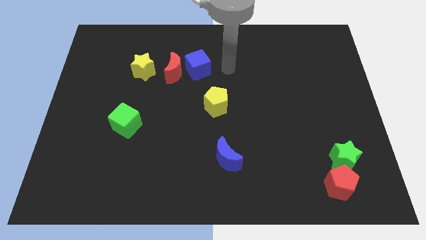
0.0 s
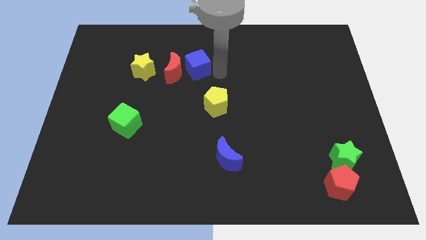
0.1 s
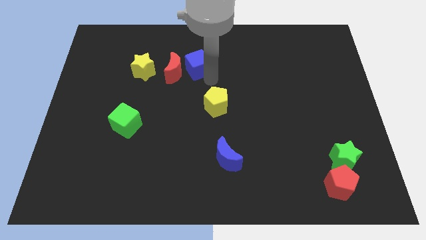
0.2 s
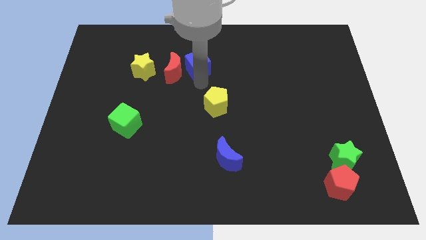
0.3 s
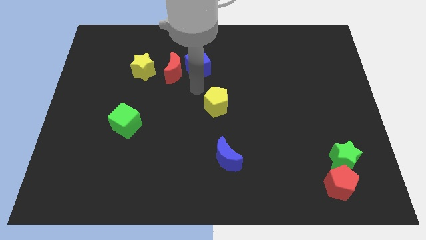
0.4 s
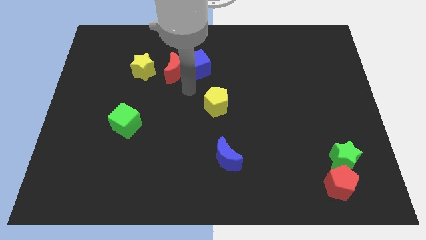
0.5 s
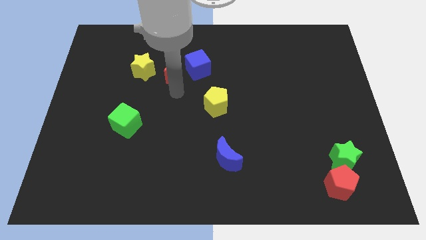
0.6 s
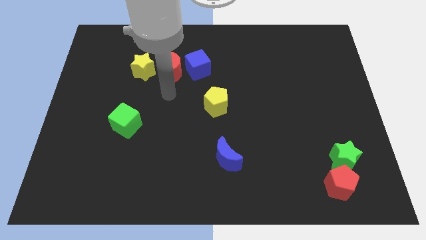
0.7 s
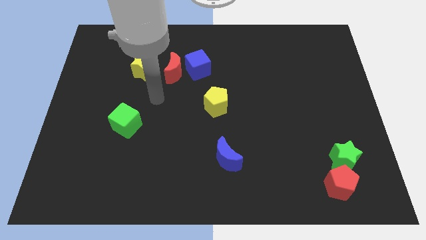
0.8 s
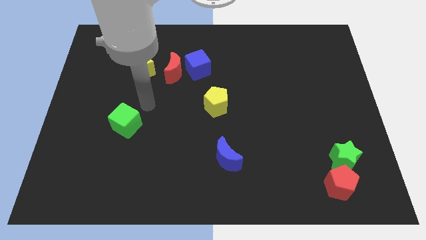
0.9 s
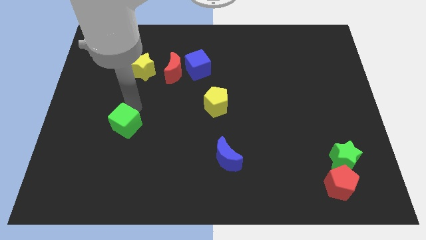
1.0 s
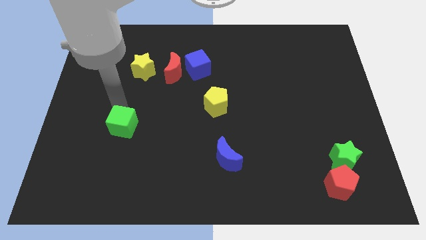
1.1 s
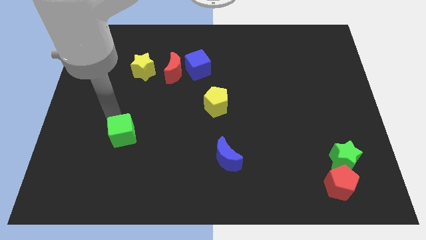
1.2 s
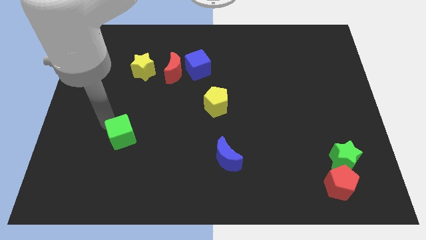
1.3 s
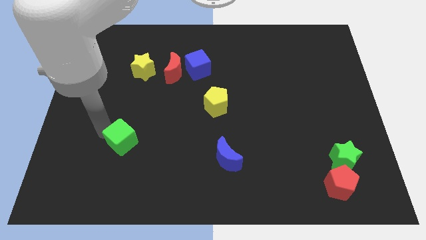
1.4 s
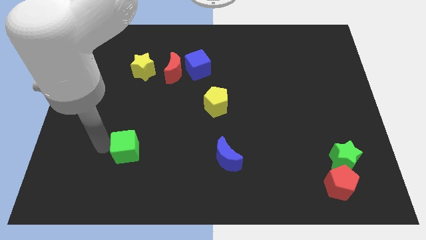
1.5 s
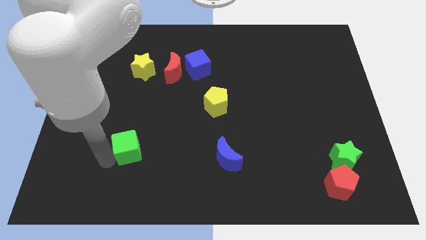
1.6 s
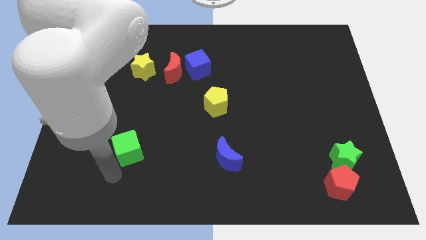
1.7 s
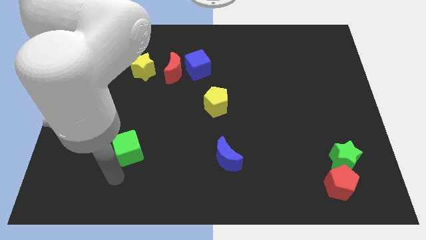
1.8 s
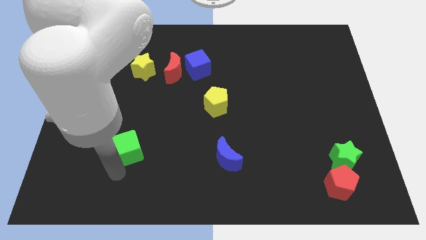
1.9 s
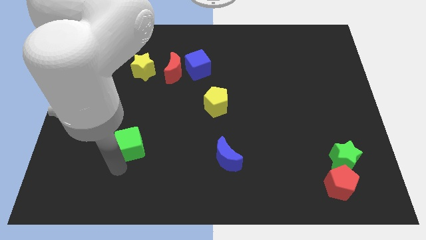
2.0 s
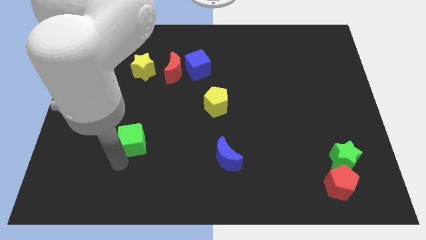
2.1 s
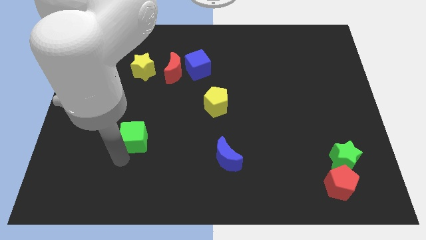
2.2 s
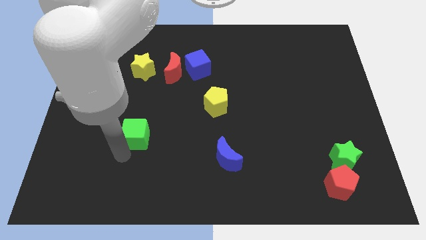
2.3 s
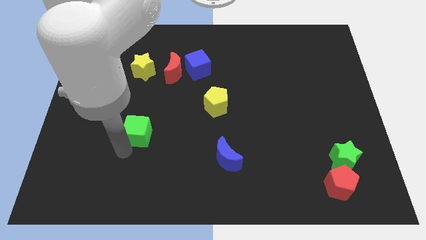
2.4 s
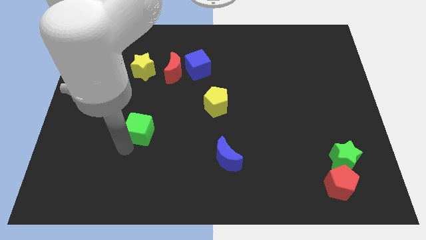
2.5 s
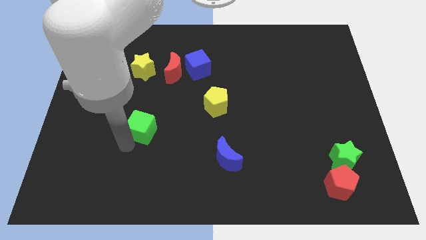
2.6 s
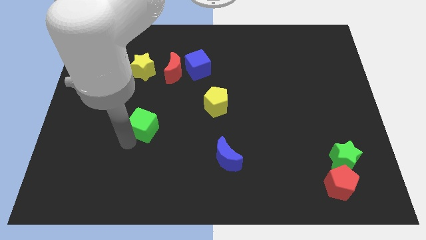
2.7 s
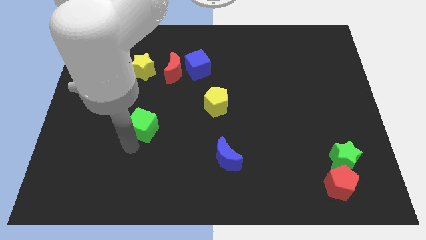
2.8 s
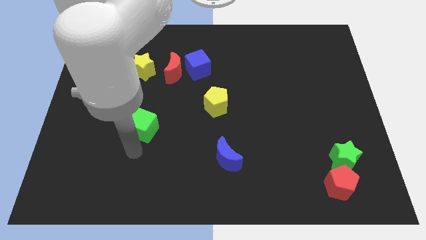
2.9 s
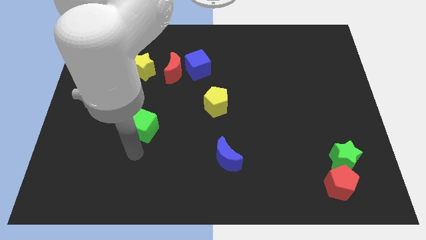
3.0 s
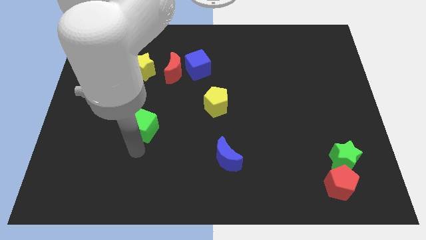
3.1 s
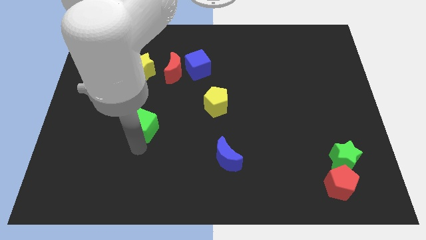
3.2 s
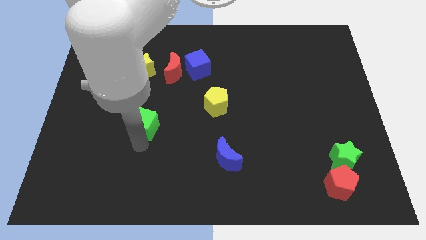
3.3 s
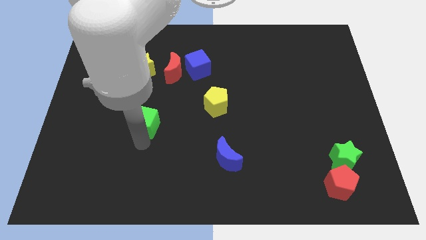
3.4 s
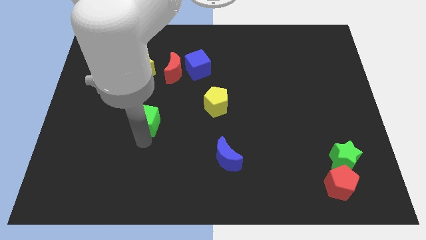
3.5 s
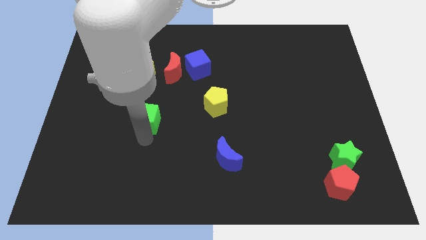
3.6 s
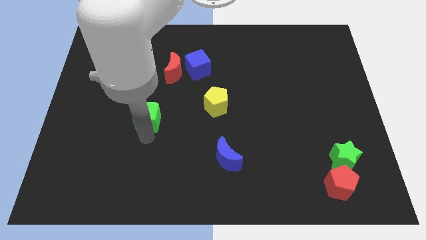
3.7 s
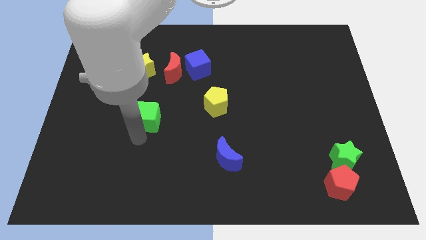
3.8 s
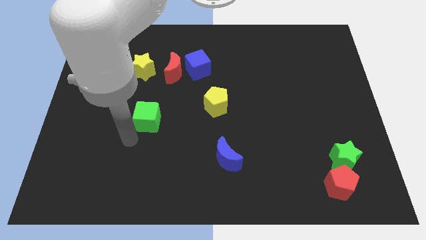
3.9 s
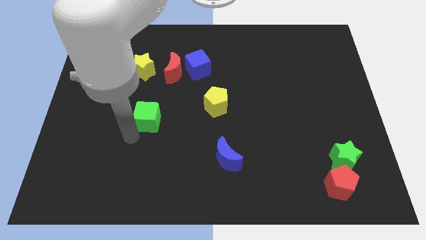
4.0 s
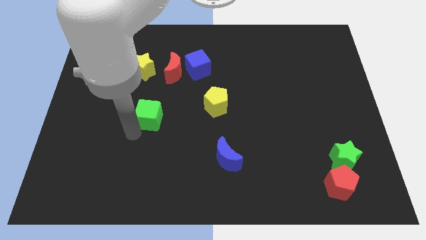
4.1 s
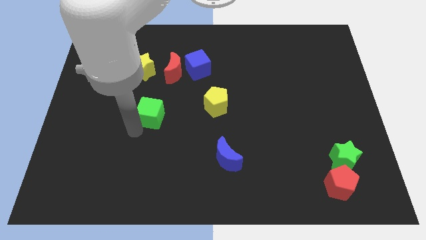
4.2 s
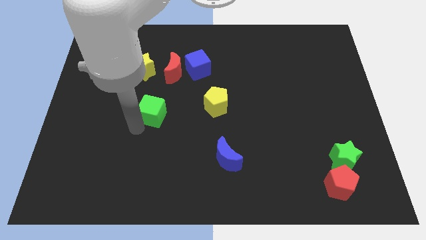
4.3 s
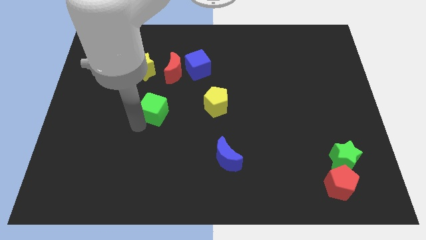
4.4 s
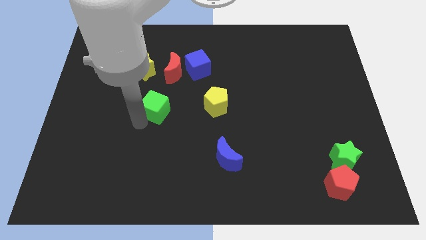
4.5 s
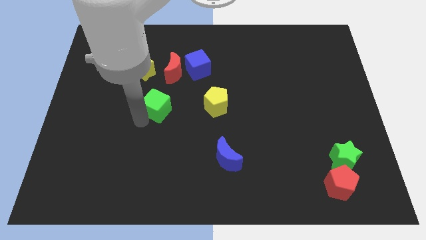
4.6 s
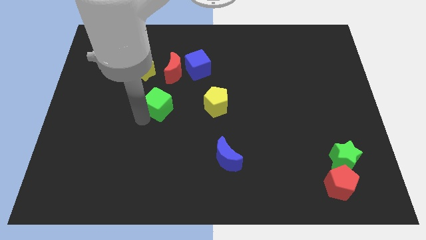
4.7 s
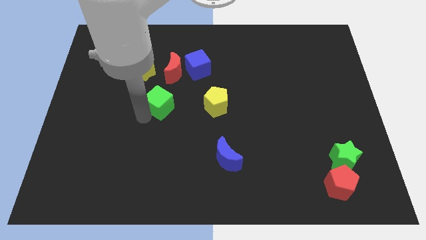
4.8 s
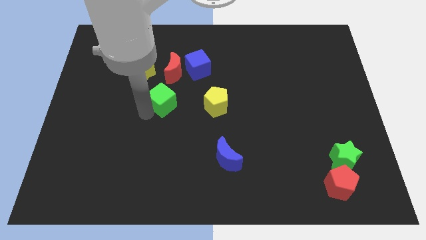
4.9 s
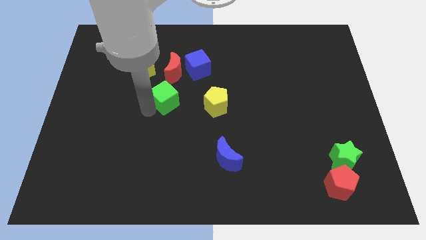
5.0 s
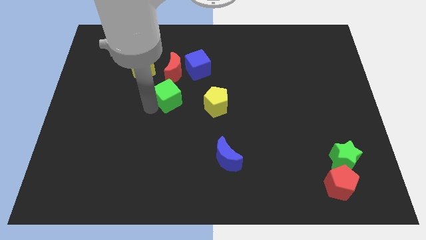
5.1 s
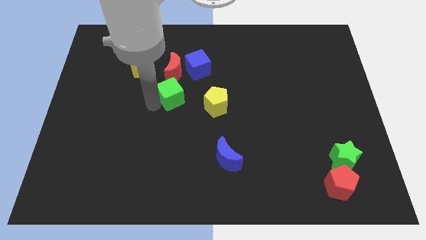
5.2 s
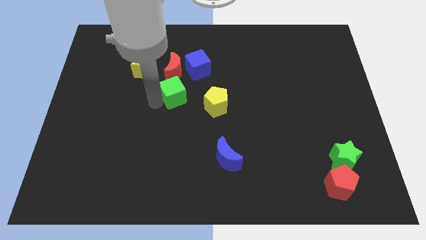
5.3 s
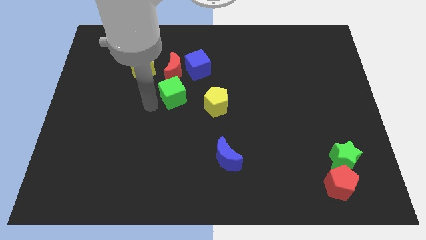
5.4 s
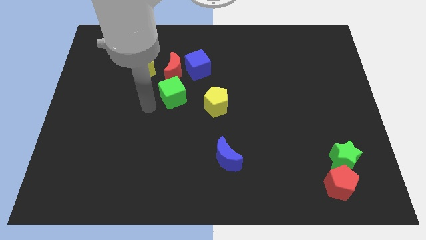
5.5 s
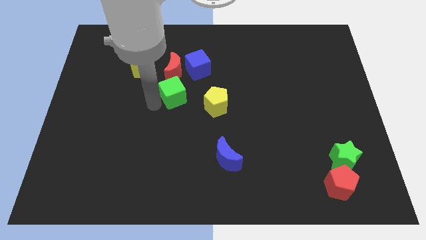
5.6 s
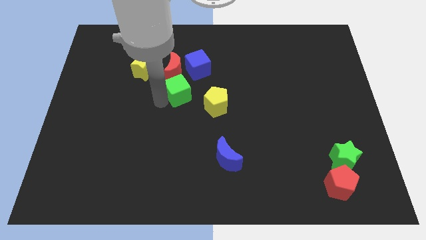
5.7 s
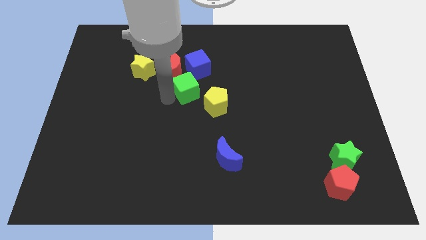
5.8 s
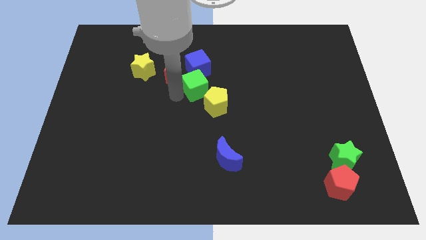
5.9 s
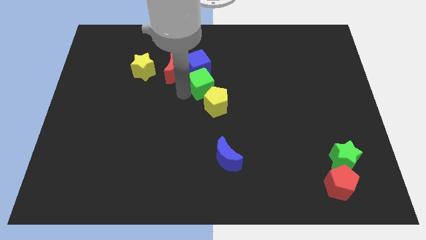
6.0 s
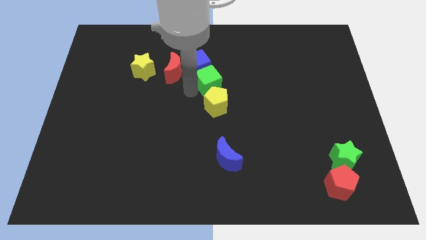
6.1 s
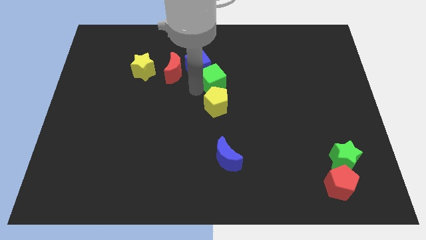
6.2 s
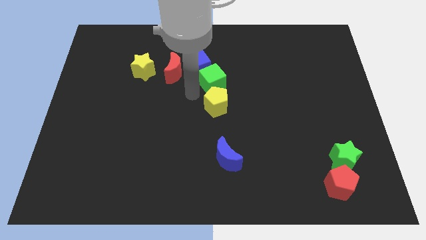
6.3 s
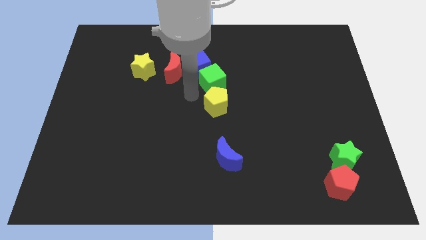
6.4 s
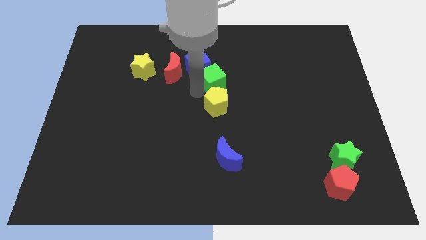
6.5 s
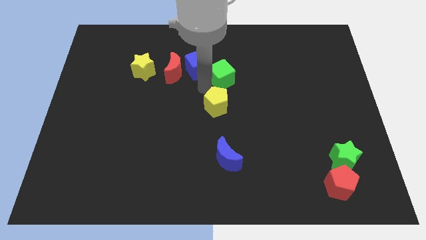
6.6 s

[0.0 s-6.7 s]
put the green cube right of the blue cube
